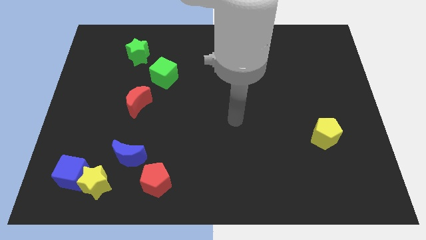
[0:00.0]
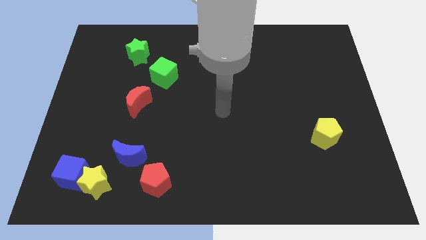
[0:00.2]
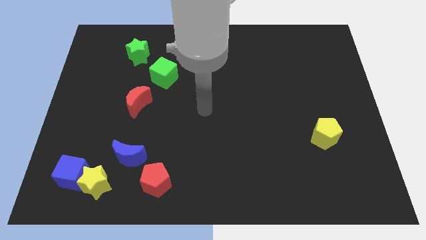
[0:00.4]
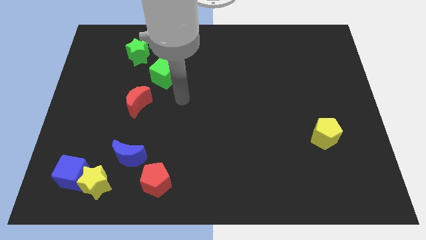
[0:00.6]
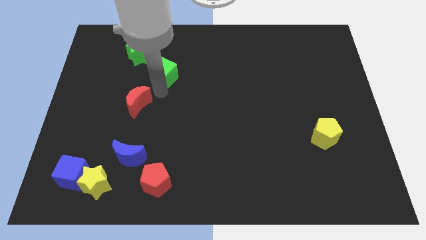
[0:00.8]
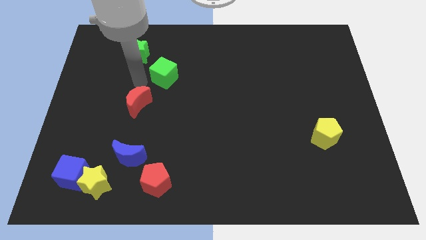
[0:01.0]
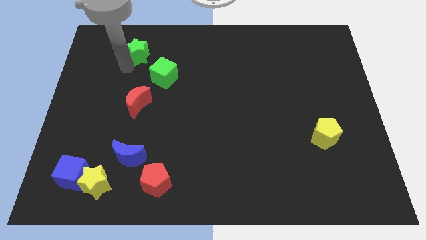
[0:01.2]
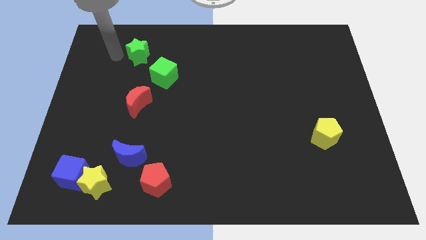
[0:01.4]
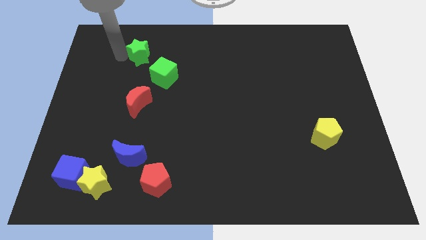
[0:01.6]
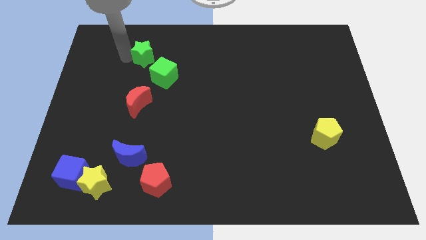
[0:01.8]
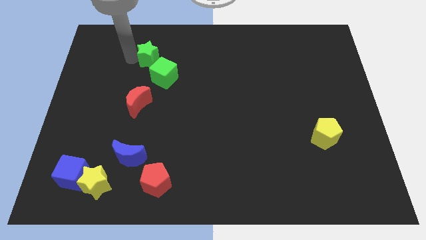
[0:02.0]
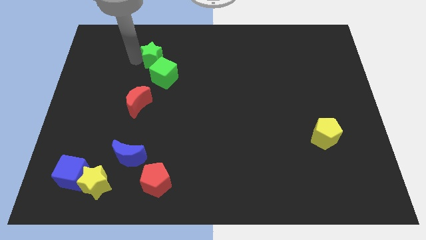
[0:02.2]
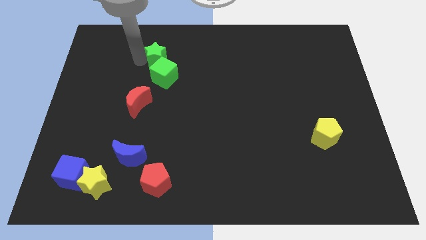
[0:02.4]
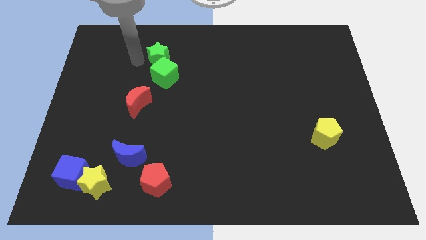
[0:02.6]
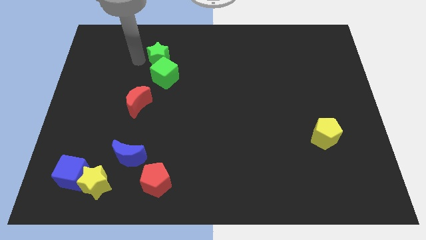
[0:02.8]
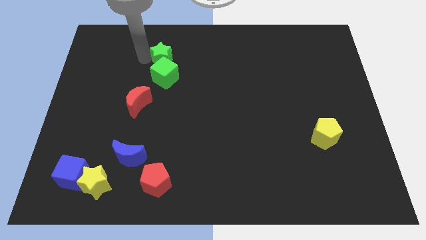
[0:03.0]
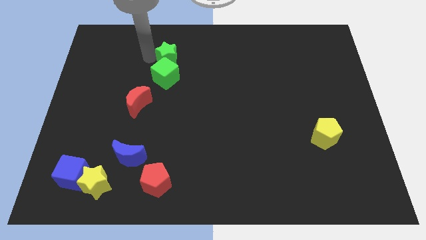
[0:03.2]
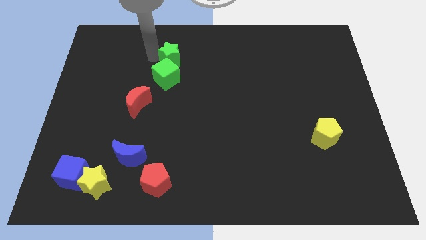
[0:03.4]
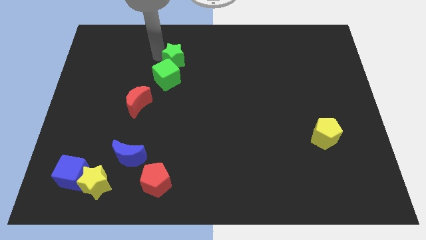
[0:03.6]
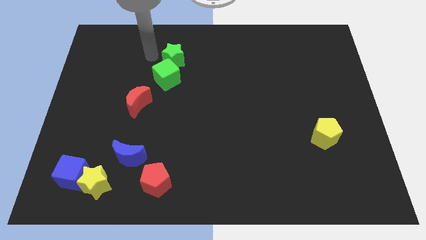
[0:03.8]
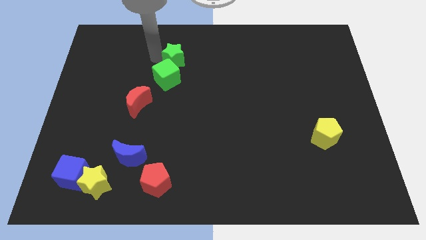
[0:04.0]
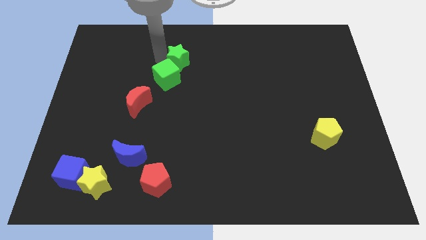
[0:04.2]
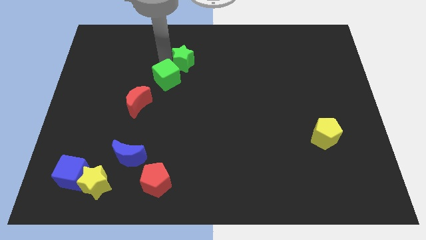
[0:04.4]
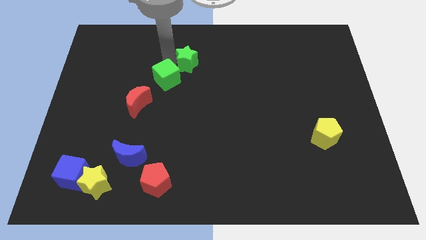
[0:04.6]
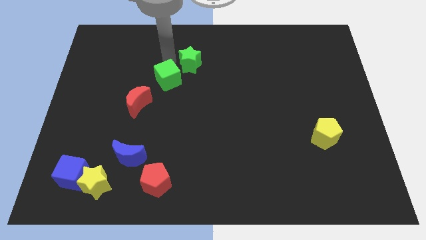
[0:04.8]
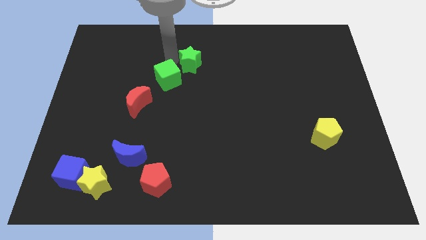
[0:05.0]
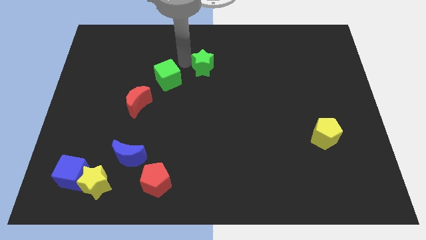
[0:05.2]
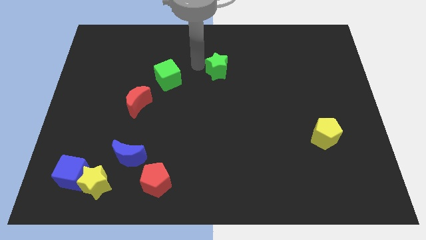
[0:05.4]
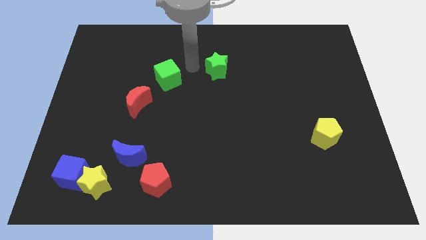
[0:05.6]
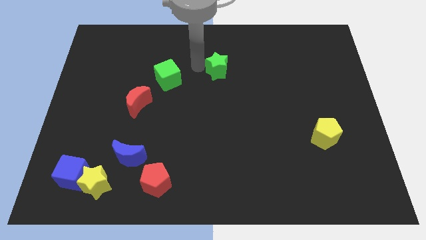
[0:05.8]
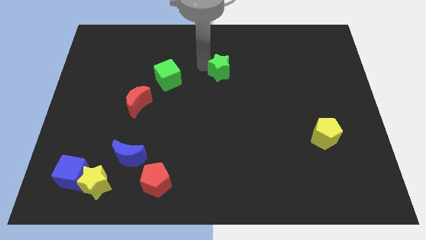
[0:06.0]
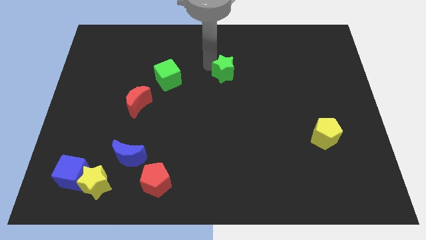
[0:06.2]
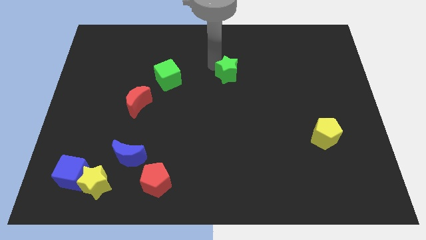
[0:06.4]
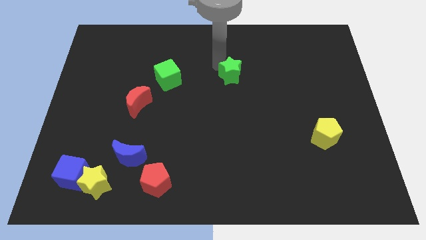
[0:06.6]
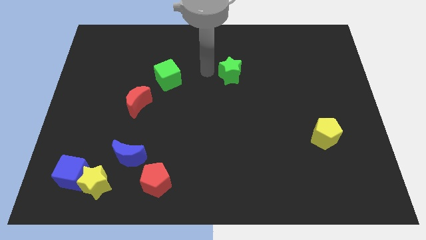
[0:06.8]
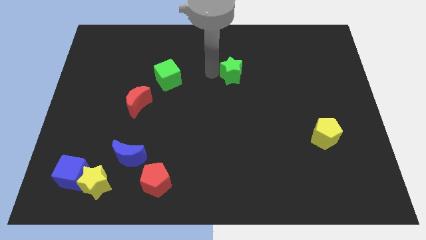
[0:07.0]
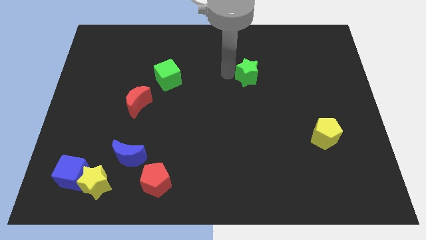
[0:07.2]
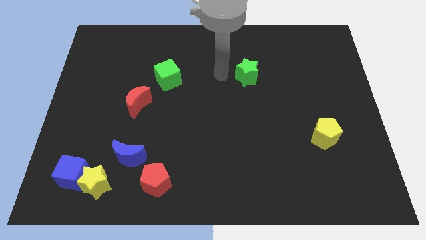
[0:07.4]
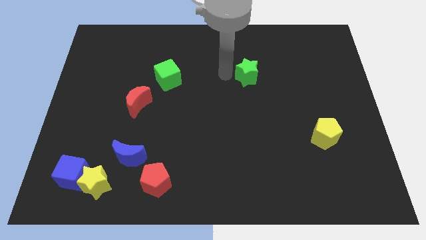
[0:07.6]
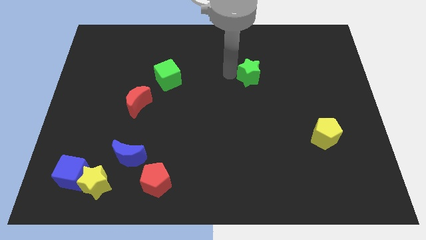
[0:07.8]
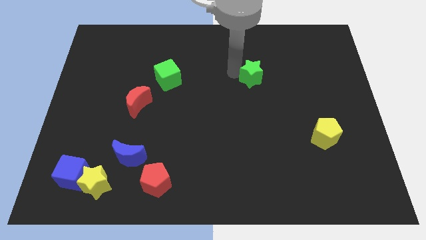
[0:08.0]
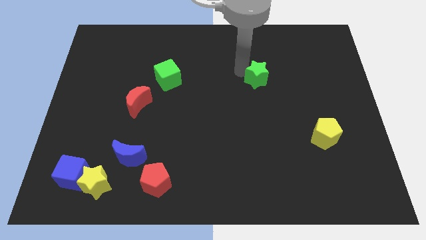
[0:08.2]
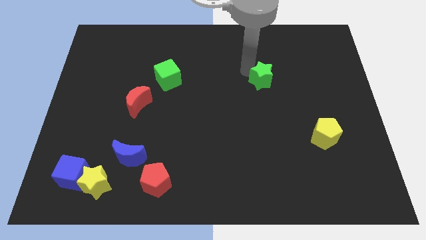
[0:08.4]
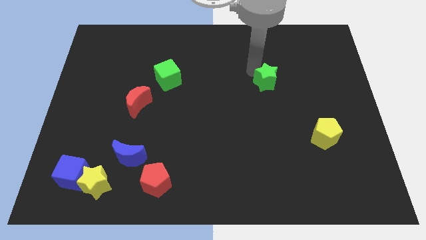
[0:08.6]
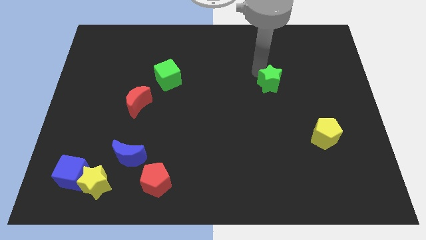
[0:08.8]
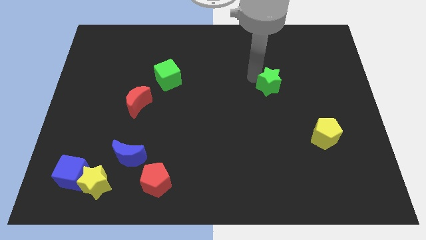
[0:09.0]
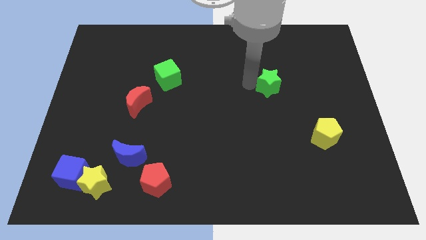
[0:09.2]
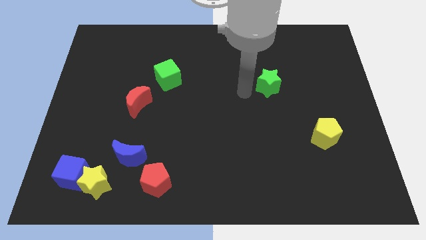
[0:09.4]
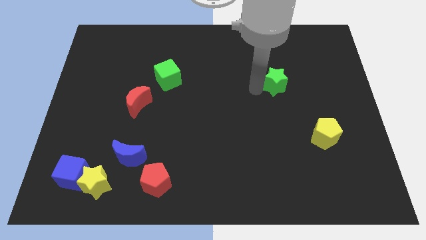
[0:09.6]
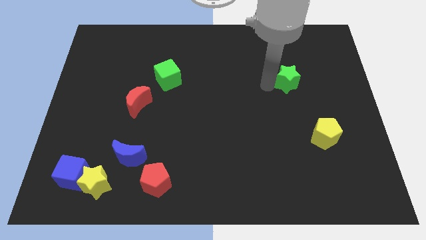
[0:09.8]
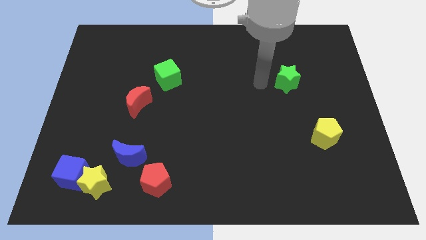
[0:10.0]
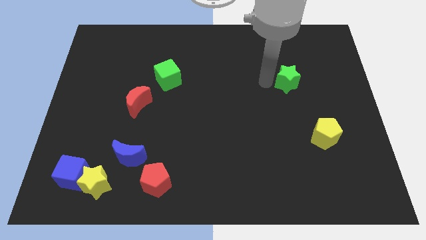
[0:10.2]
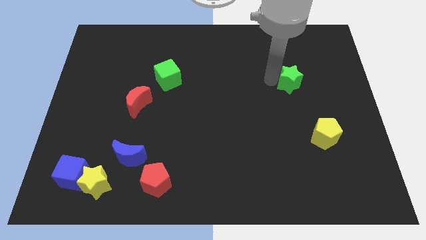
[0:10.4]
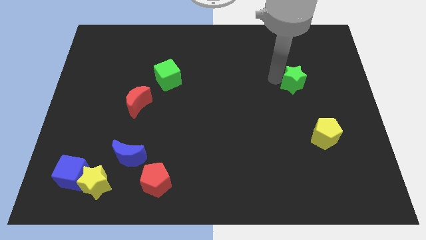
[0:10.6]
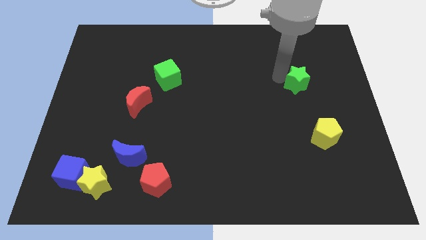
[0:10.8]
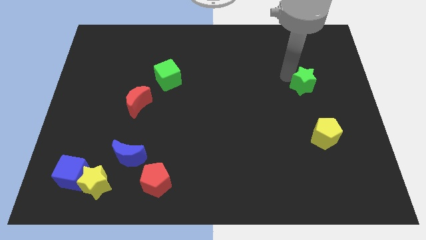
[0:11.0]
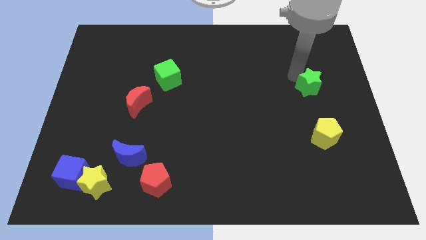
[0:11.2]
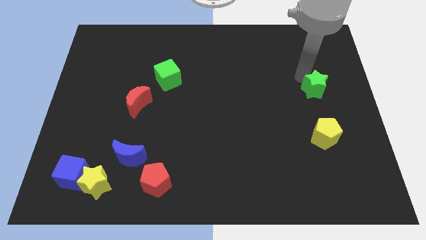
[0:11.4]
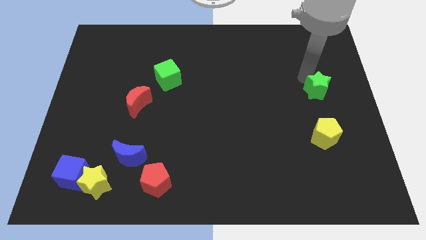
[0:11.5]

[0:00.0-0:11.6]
move the green star to the center right
